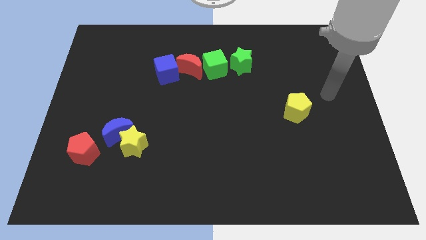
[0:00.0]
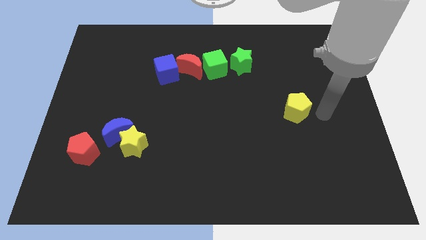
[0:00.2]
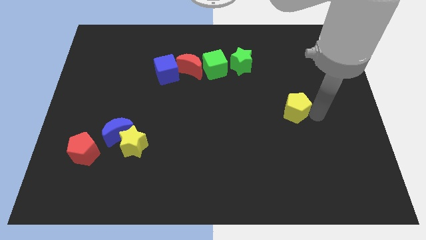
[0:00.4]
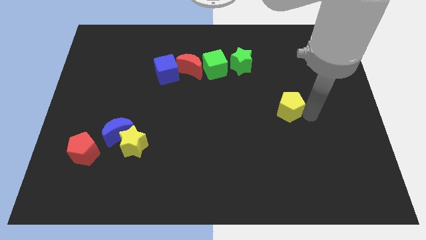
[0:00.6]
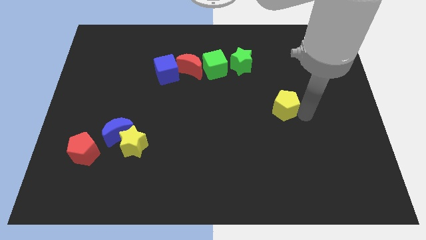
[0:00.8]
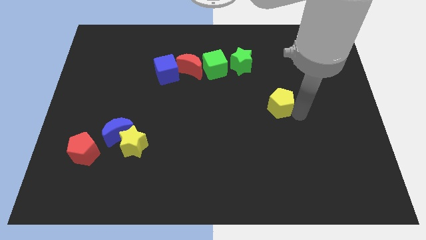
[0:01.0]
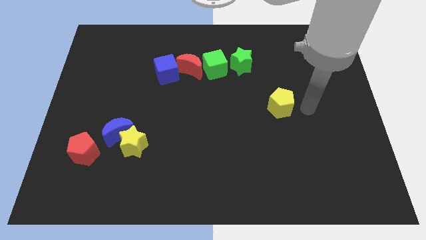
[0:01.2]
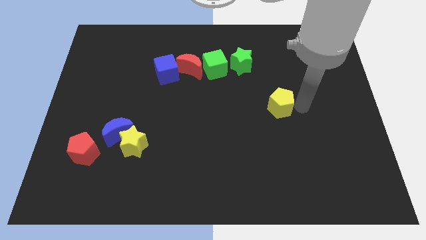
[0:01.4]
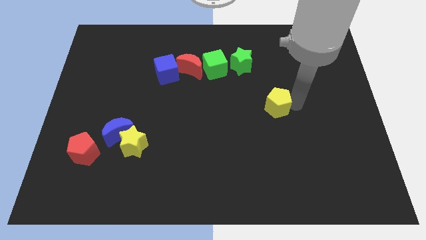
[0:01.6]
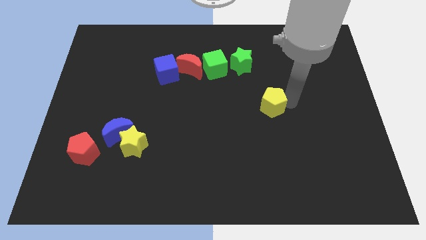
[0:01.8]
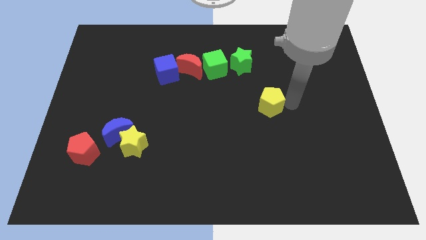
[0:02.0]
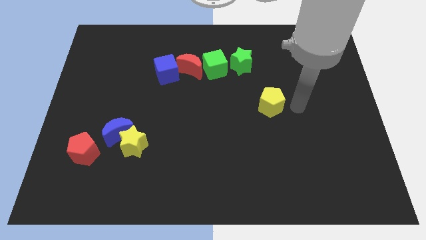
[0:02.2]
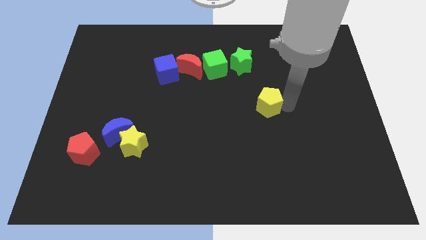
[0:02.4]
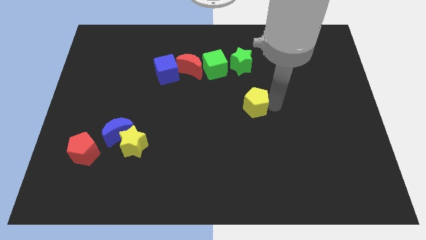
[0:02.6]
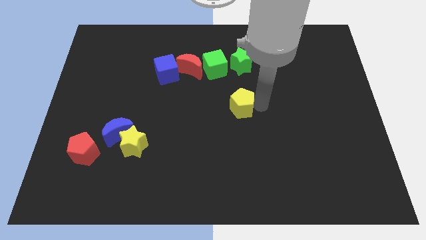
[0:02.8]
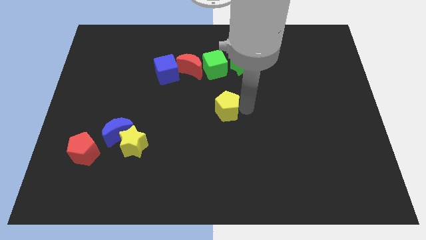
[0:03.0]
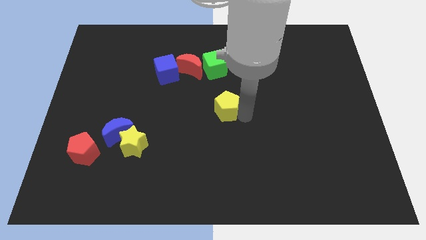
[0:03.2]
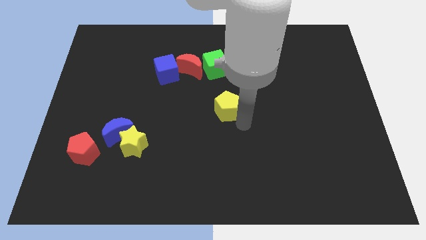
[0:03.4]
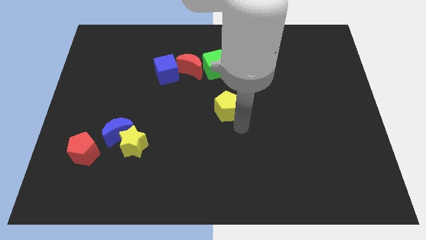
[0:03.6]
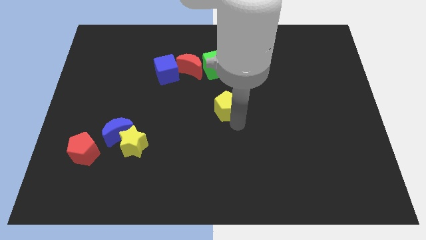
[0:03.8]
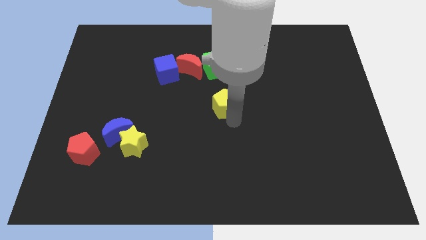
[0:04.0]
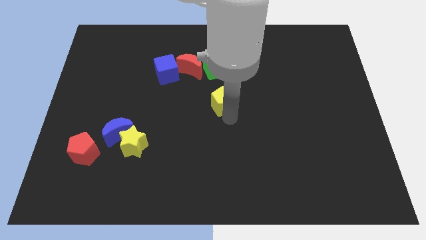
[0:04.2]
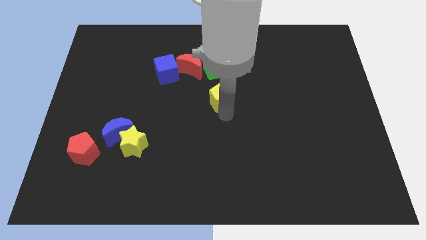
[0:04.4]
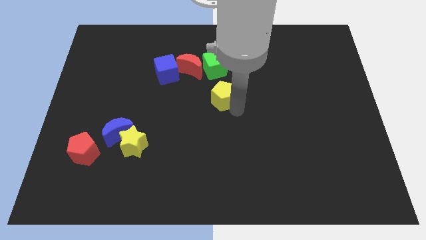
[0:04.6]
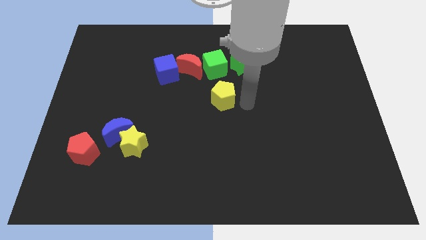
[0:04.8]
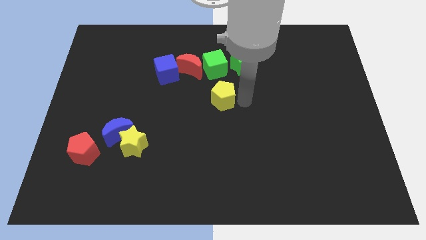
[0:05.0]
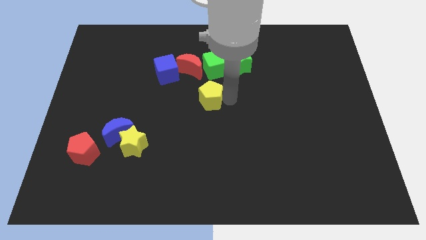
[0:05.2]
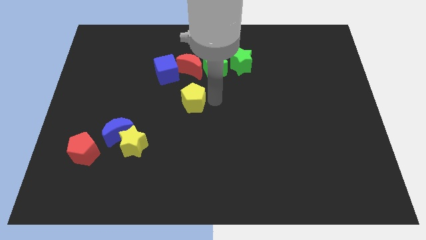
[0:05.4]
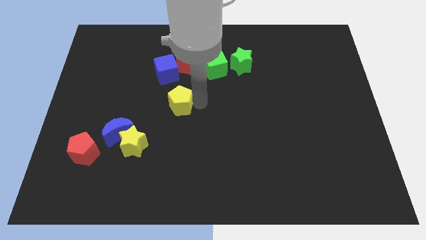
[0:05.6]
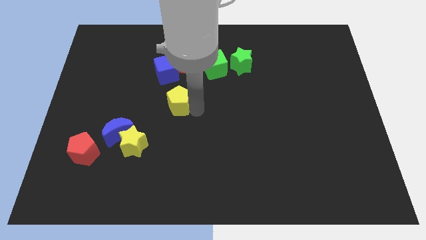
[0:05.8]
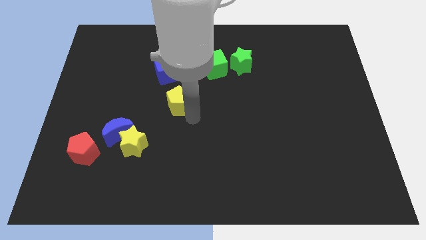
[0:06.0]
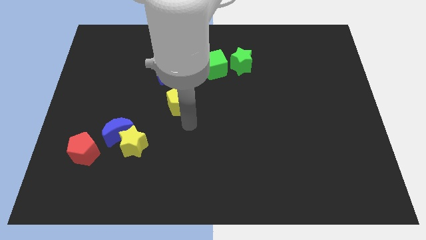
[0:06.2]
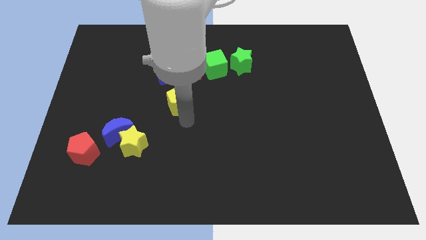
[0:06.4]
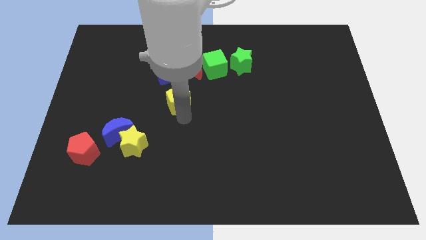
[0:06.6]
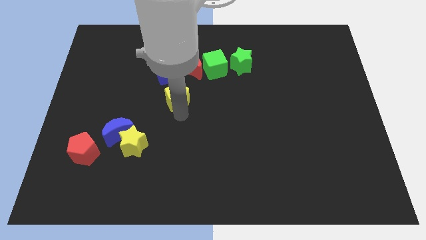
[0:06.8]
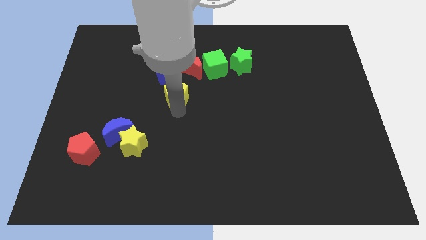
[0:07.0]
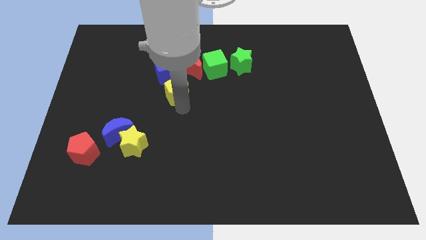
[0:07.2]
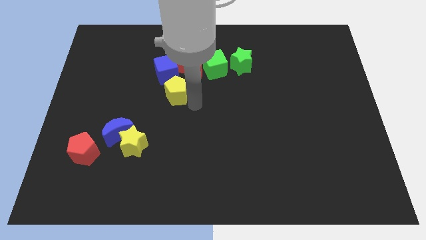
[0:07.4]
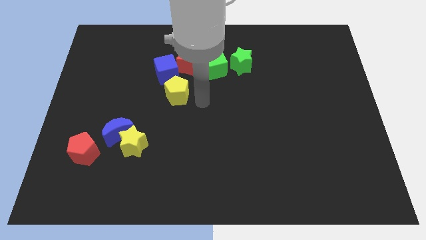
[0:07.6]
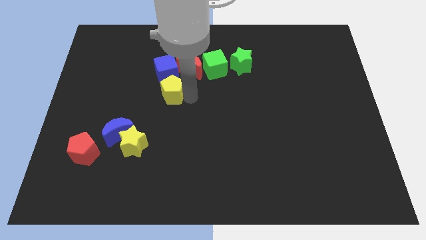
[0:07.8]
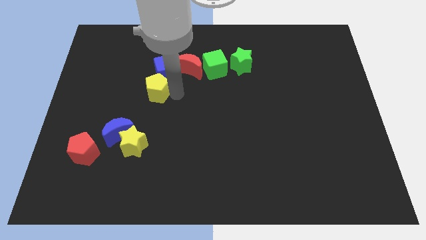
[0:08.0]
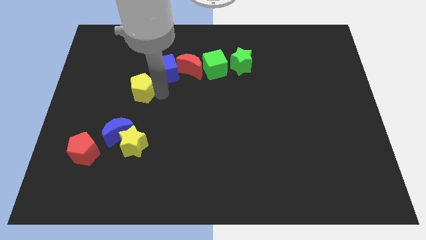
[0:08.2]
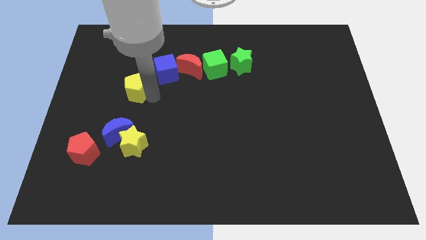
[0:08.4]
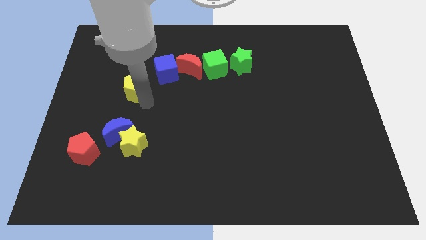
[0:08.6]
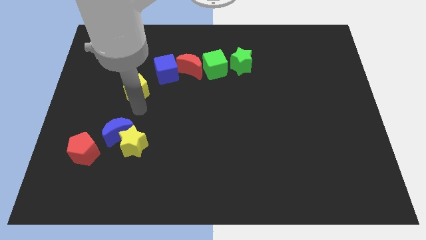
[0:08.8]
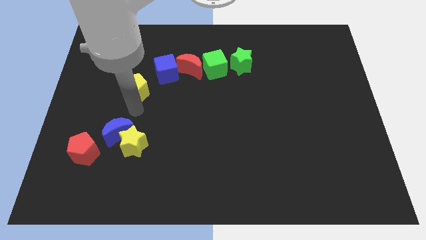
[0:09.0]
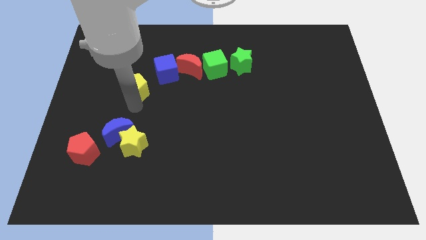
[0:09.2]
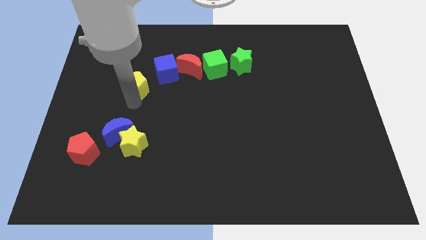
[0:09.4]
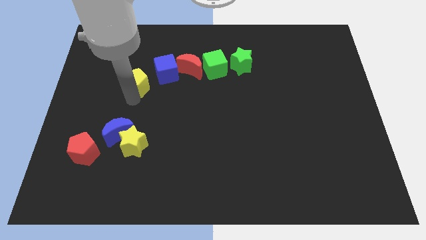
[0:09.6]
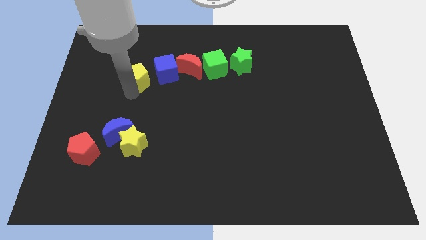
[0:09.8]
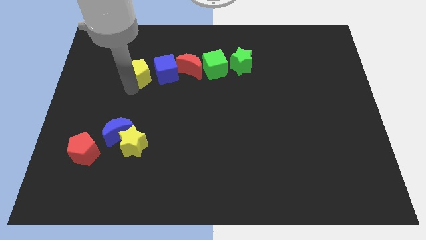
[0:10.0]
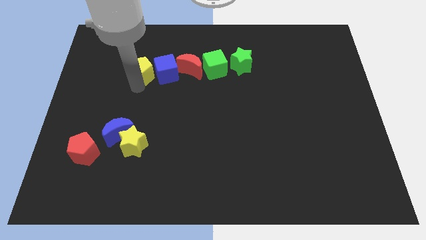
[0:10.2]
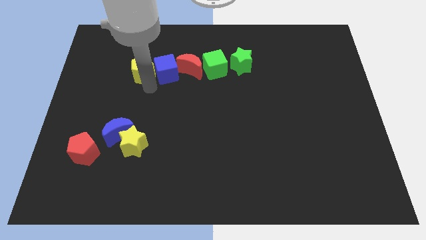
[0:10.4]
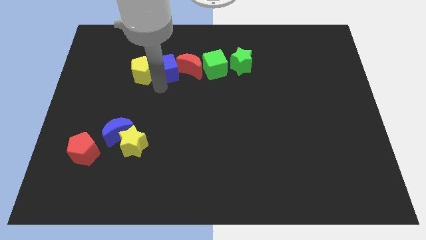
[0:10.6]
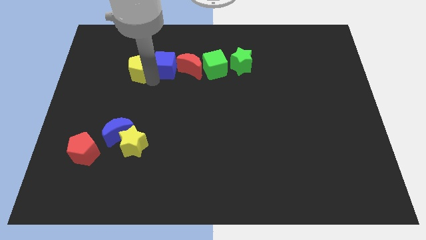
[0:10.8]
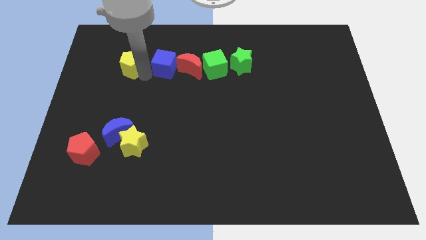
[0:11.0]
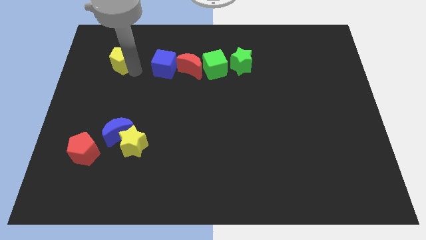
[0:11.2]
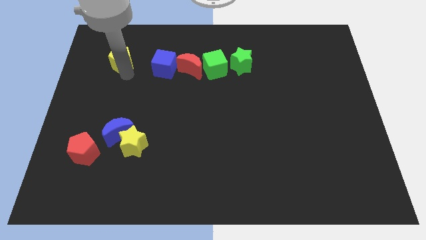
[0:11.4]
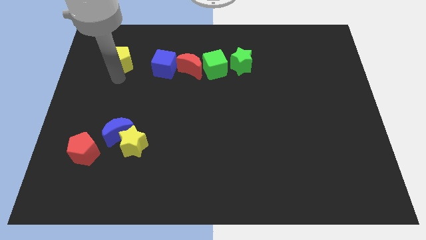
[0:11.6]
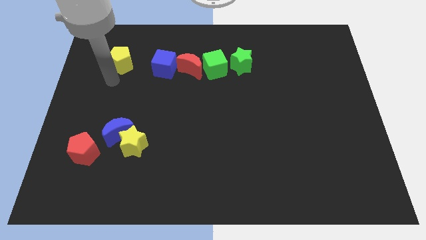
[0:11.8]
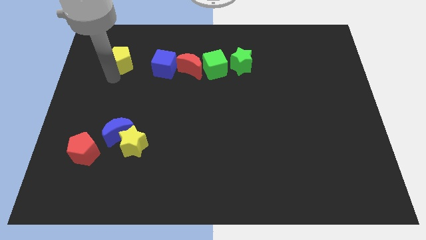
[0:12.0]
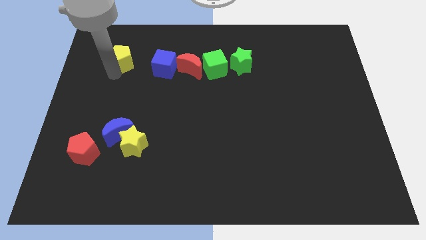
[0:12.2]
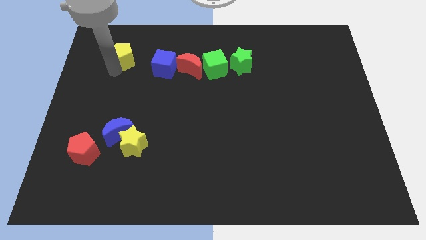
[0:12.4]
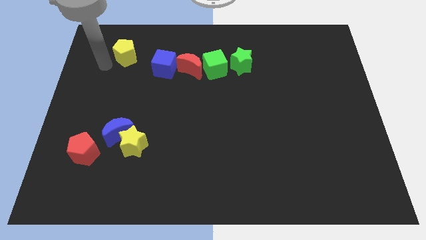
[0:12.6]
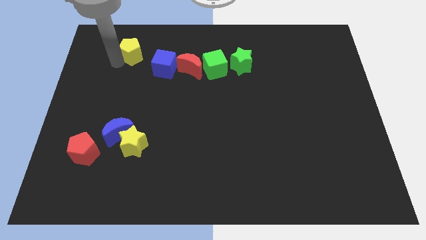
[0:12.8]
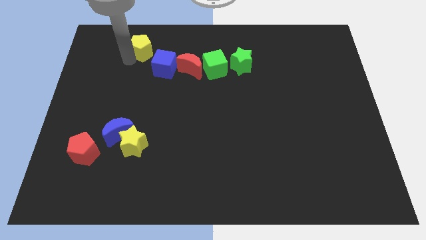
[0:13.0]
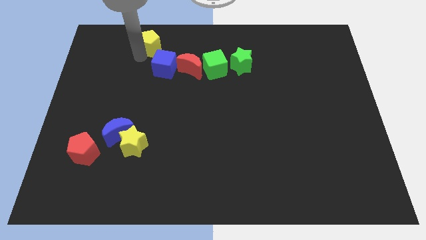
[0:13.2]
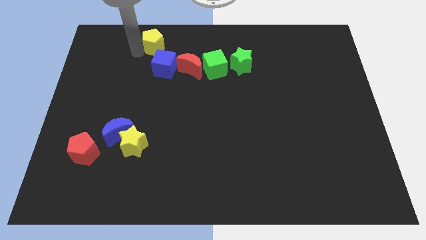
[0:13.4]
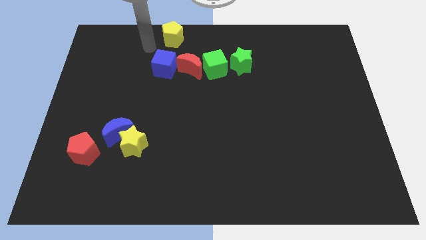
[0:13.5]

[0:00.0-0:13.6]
put the yellow pentagon to the top
